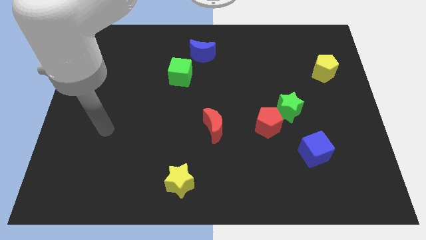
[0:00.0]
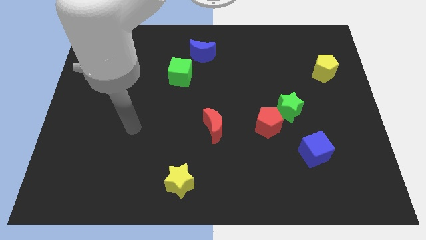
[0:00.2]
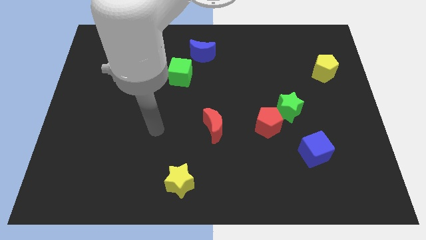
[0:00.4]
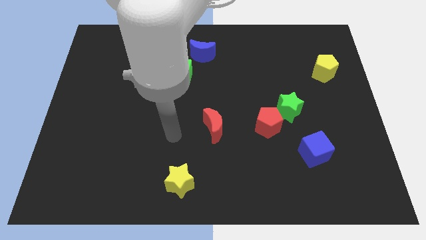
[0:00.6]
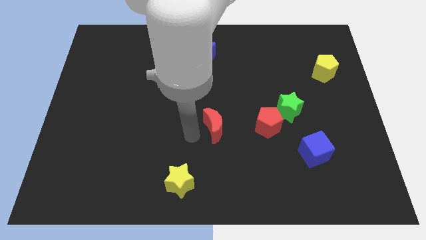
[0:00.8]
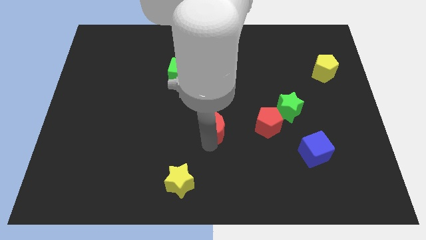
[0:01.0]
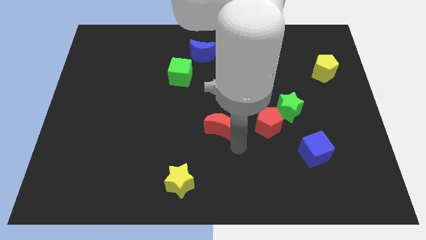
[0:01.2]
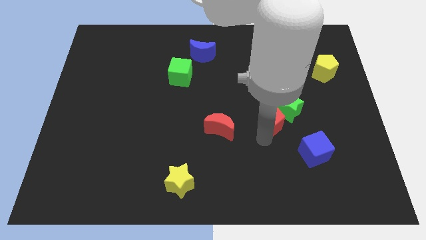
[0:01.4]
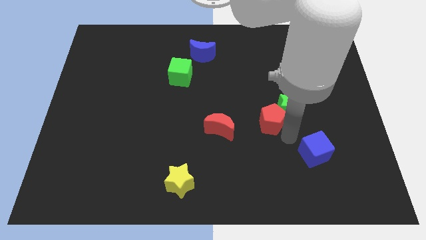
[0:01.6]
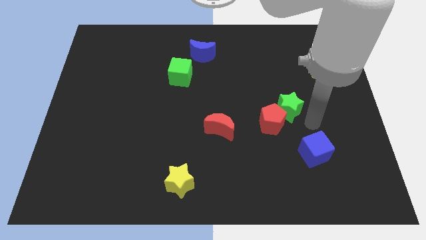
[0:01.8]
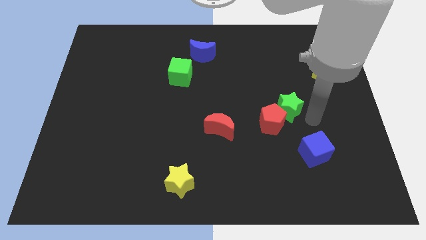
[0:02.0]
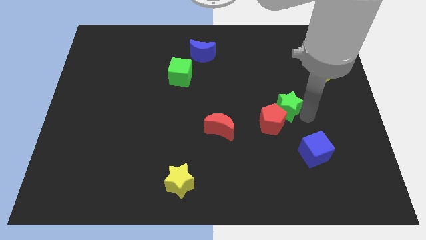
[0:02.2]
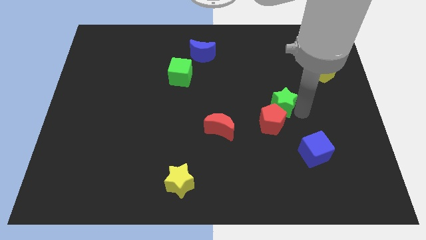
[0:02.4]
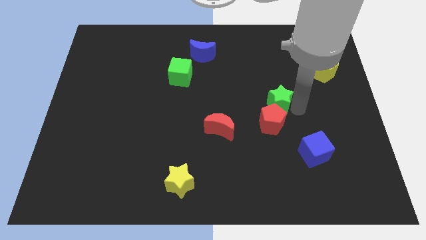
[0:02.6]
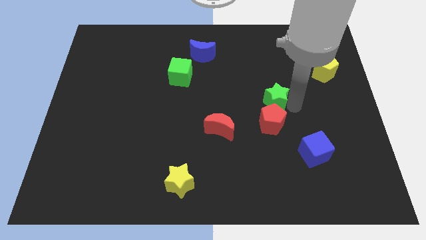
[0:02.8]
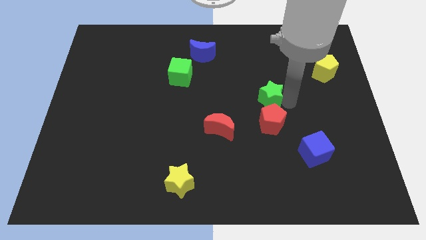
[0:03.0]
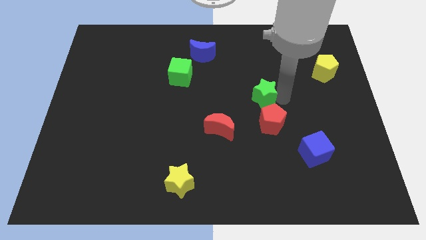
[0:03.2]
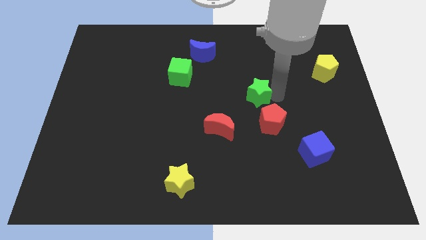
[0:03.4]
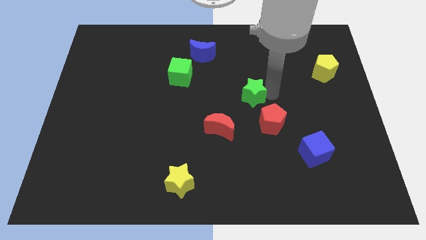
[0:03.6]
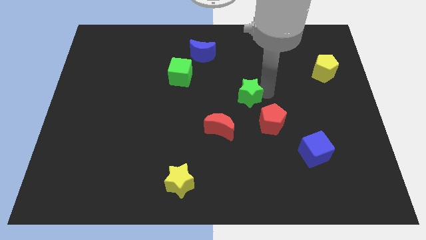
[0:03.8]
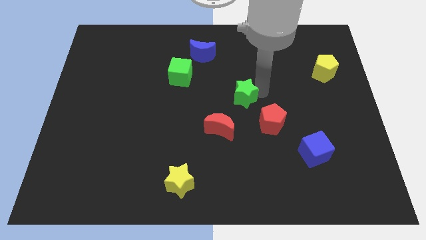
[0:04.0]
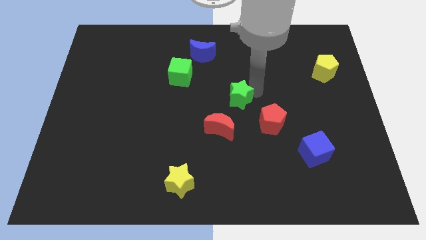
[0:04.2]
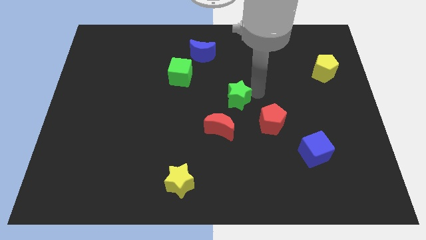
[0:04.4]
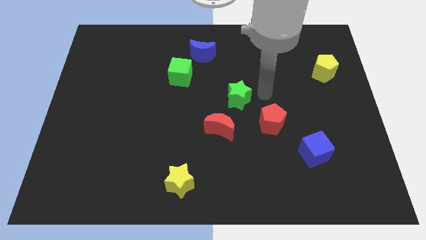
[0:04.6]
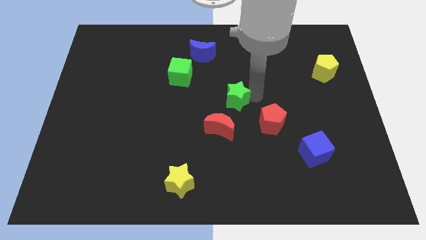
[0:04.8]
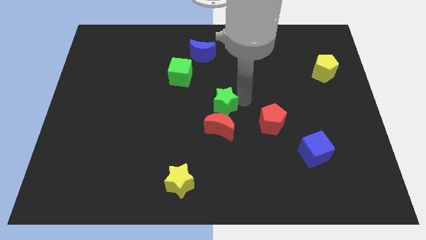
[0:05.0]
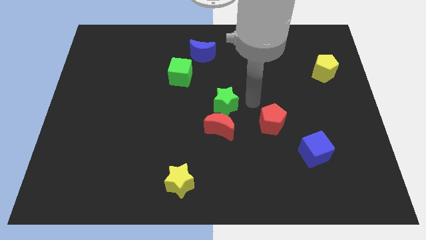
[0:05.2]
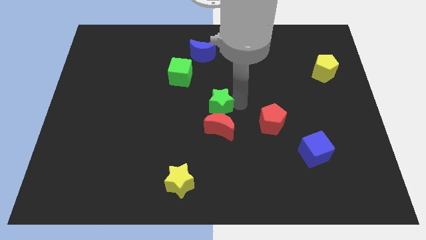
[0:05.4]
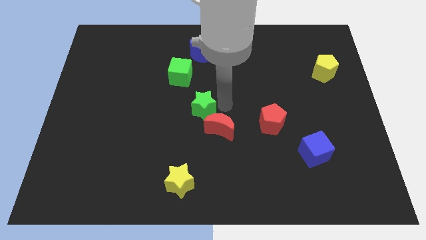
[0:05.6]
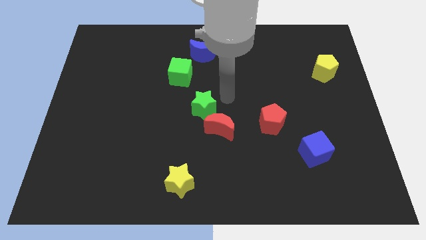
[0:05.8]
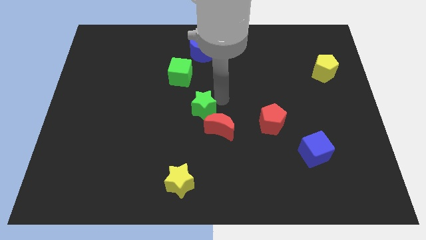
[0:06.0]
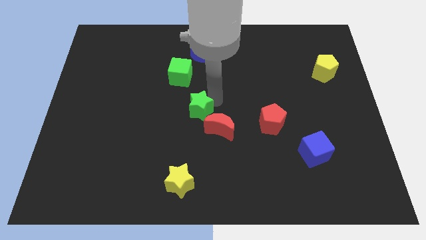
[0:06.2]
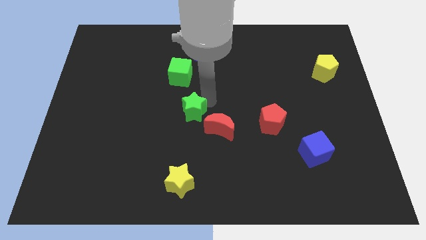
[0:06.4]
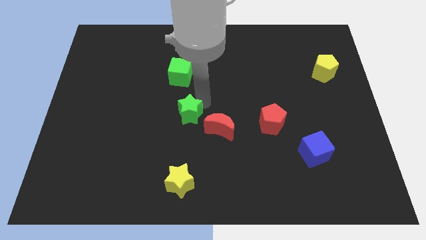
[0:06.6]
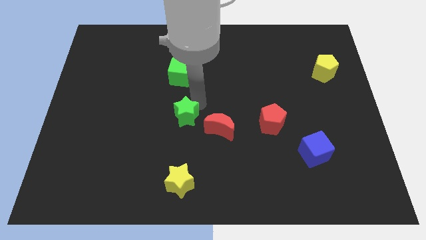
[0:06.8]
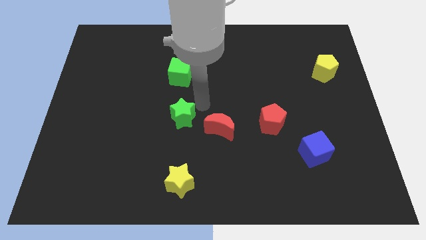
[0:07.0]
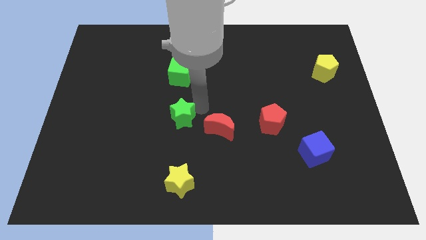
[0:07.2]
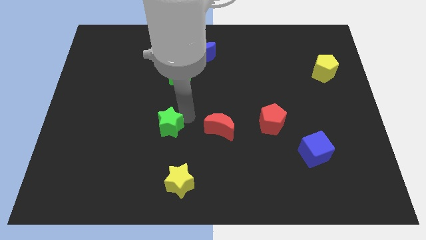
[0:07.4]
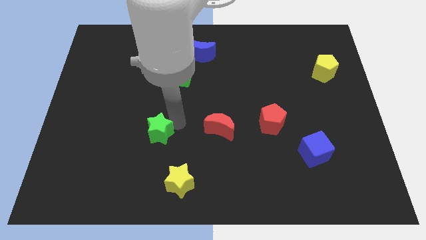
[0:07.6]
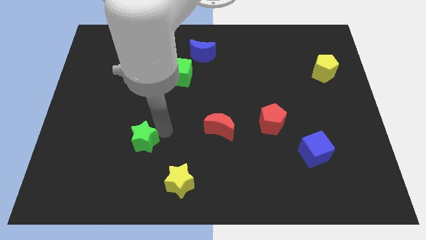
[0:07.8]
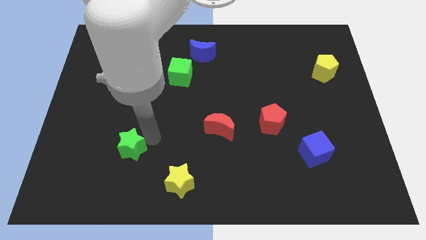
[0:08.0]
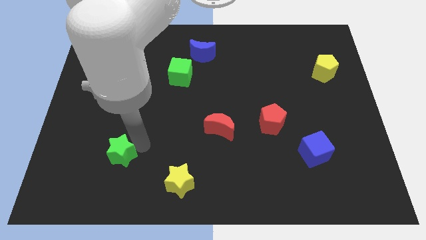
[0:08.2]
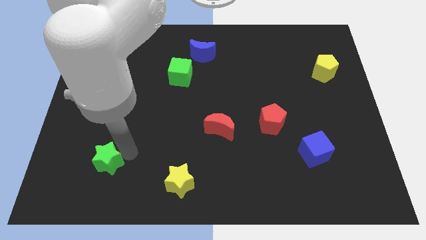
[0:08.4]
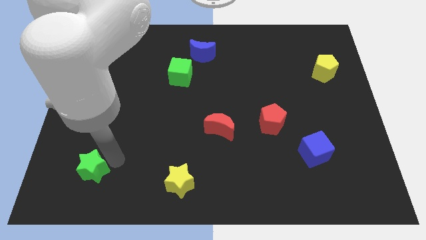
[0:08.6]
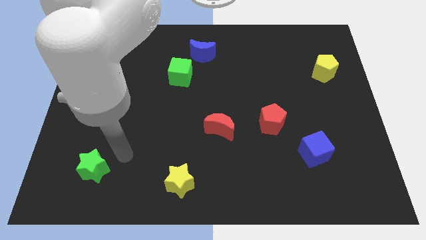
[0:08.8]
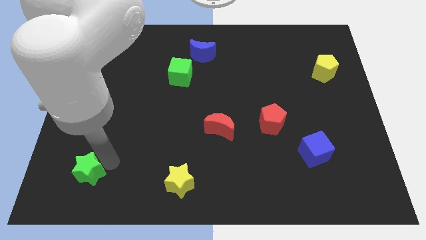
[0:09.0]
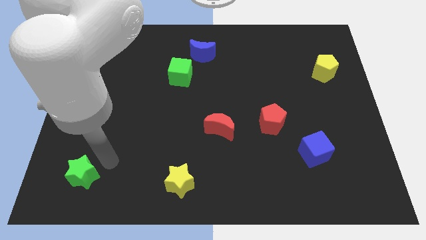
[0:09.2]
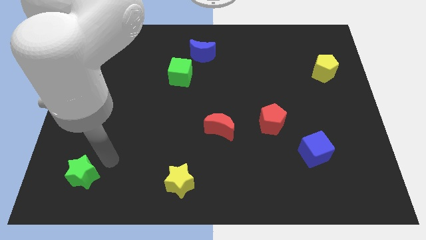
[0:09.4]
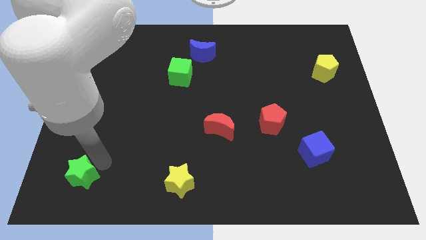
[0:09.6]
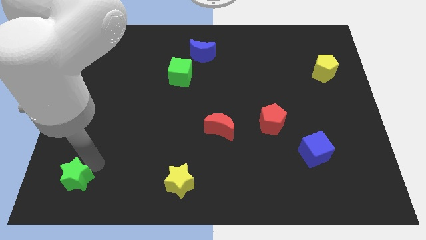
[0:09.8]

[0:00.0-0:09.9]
move the green star to the bottom left
